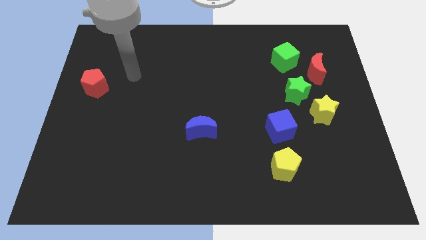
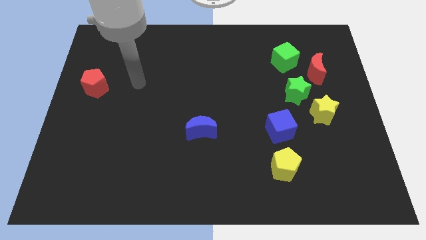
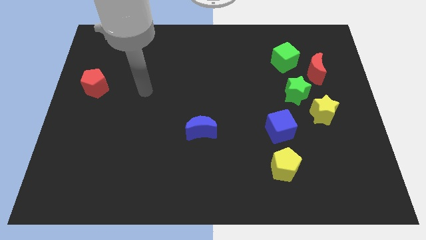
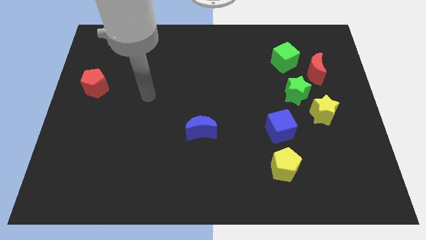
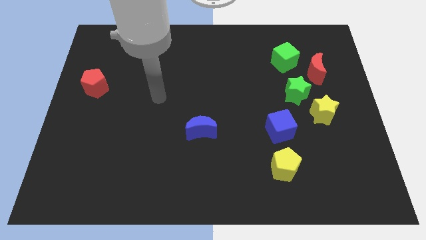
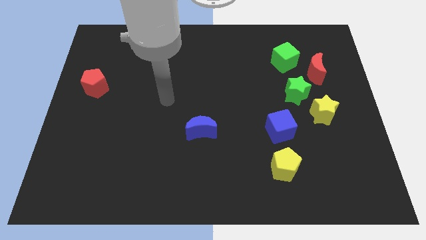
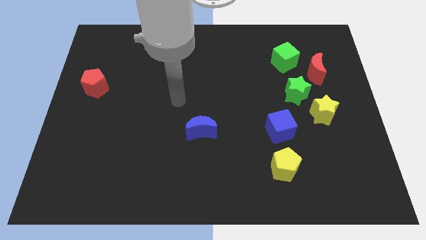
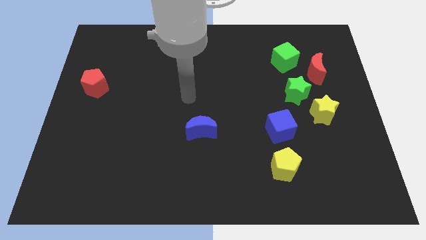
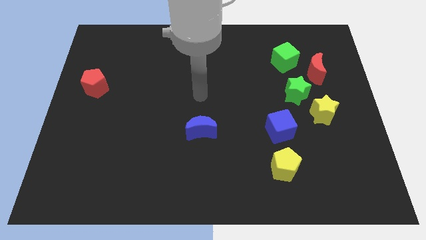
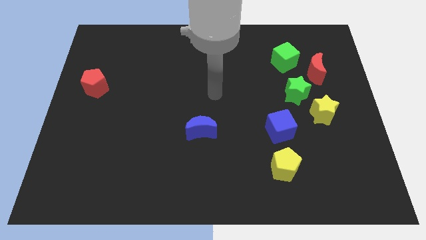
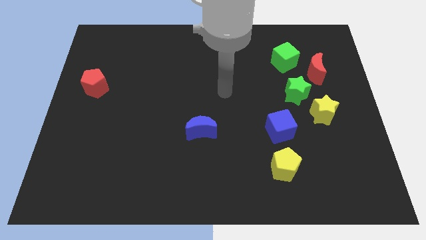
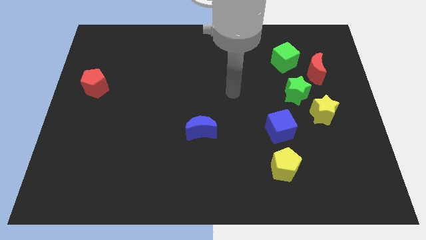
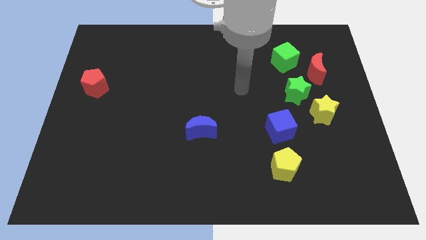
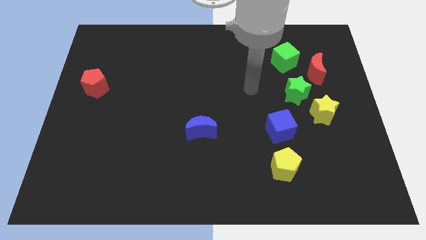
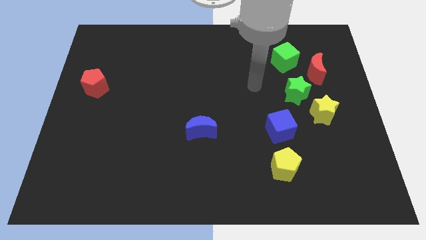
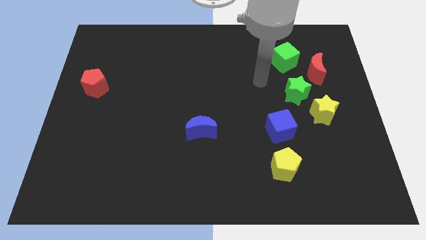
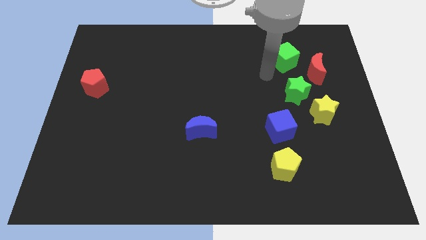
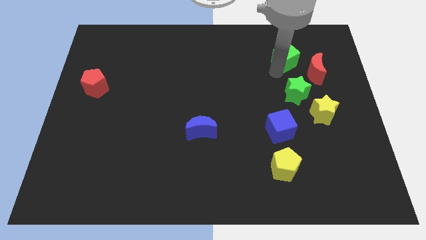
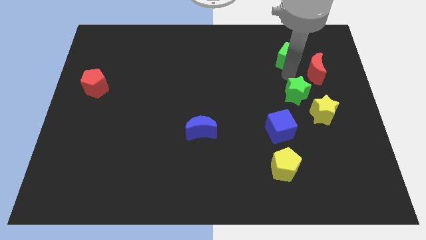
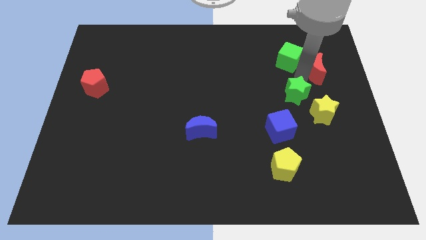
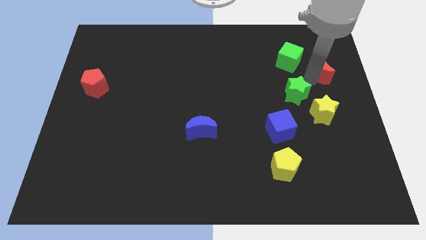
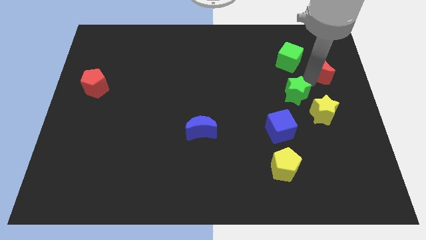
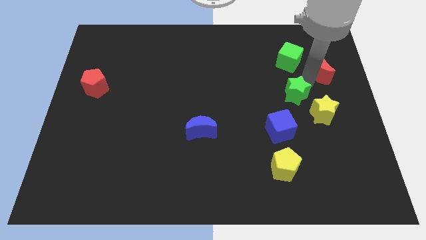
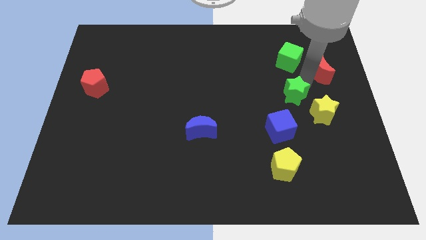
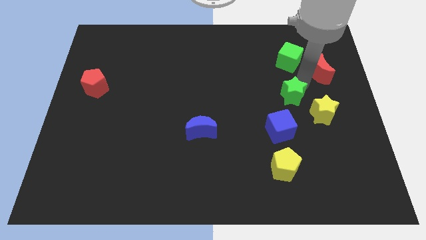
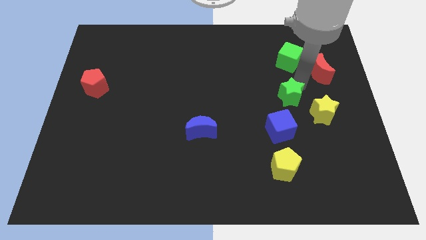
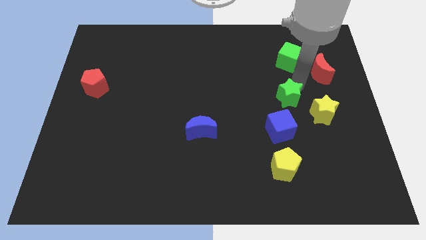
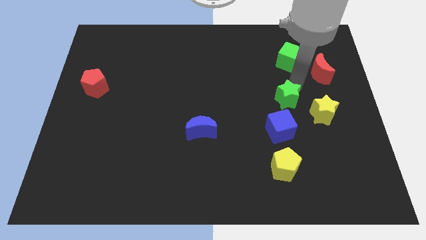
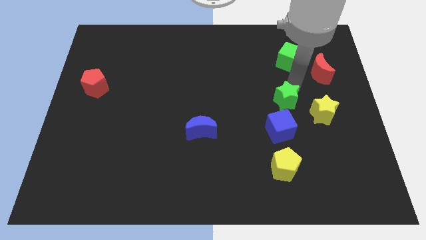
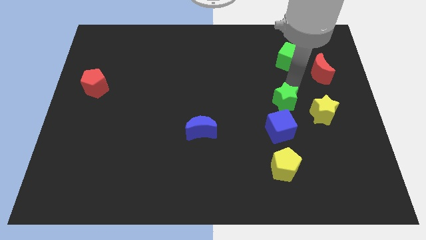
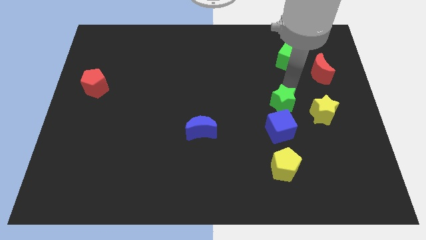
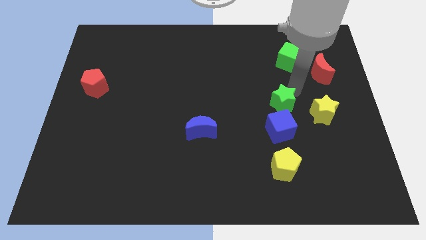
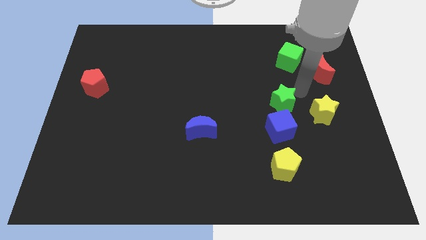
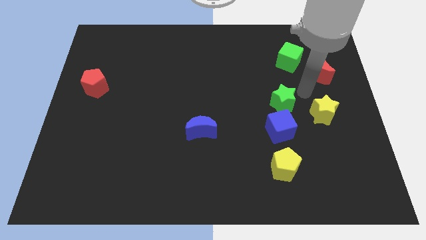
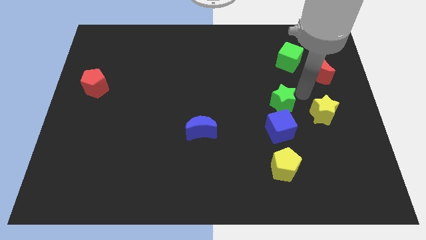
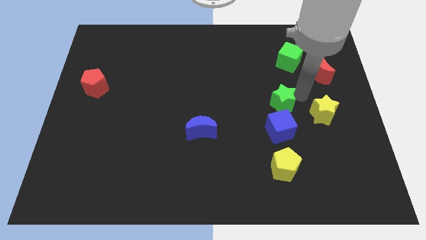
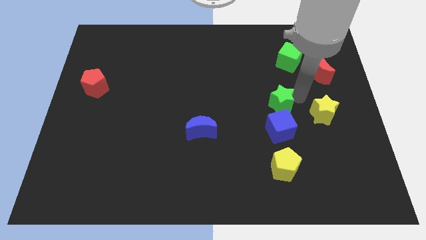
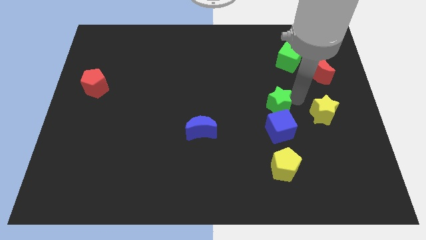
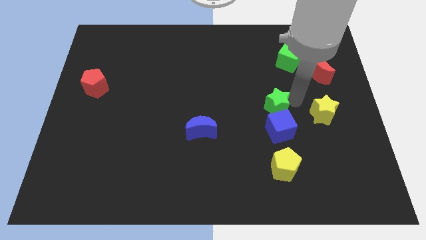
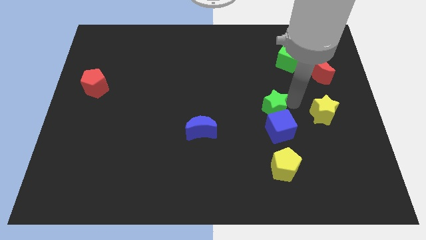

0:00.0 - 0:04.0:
move the green star a little down and to the left diagonally

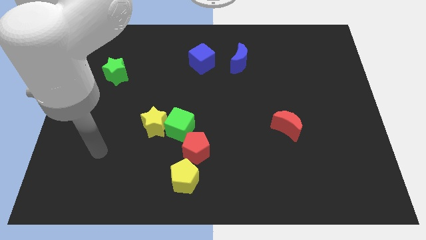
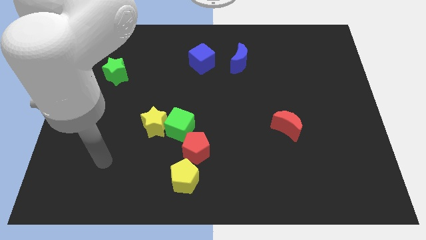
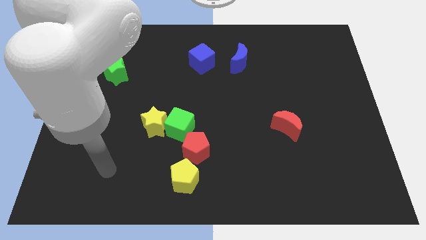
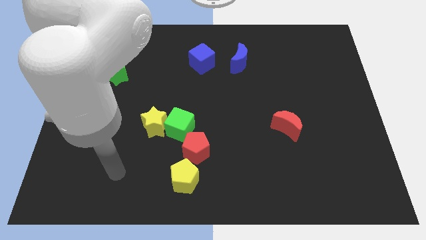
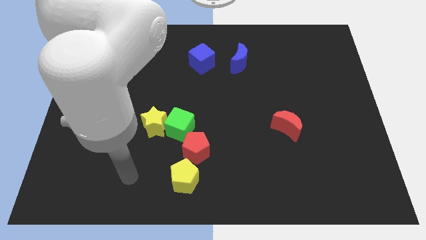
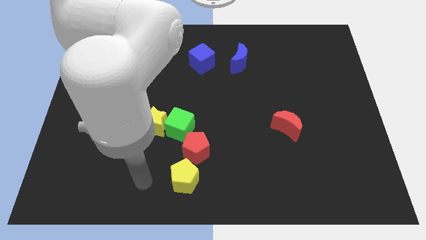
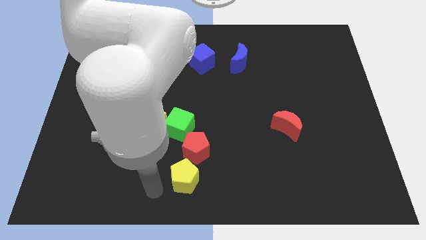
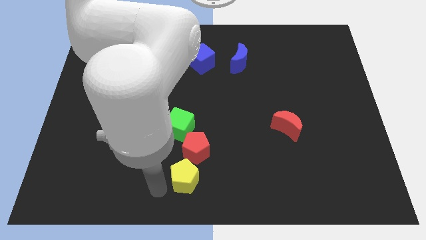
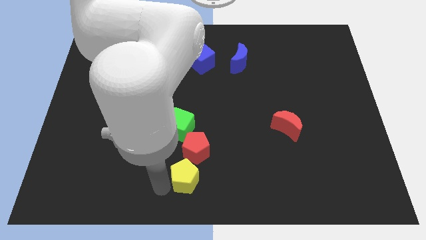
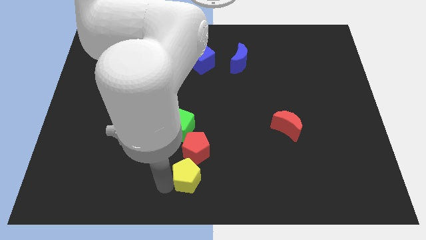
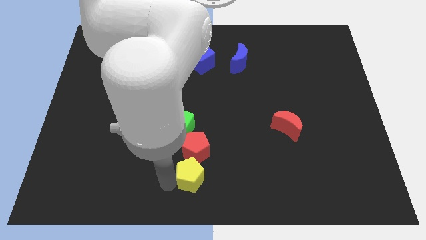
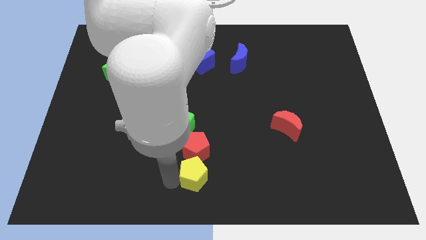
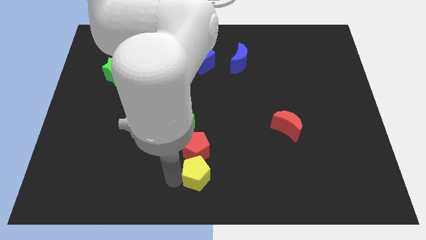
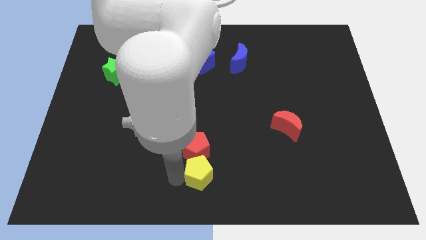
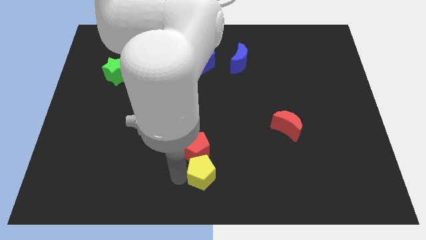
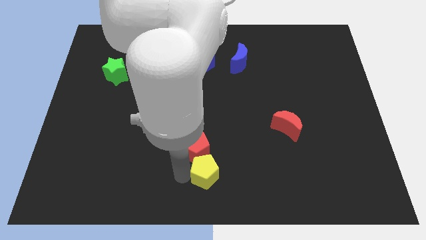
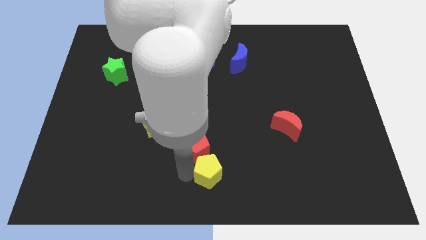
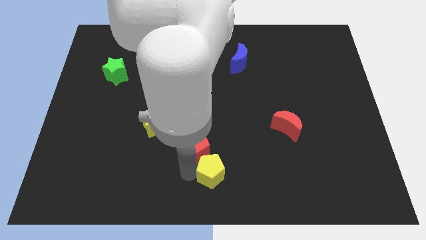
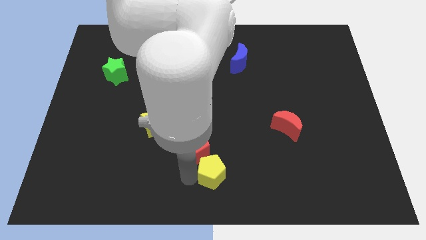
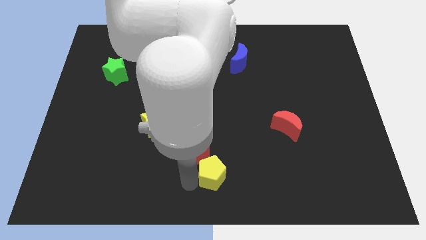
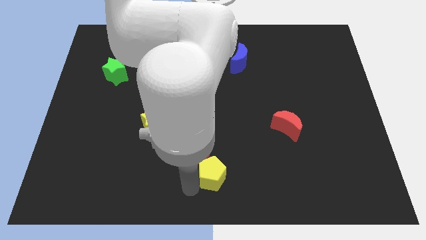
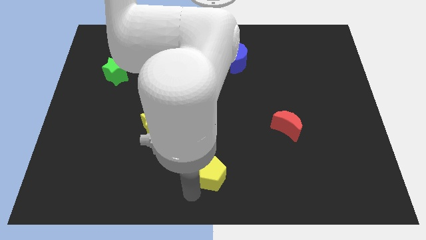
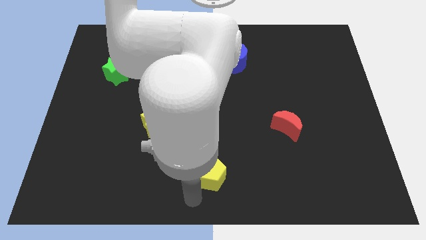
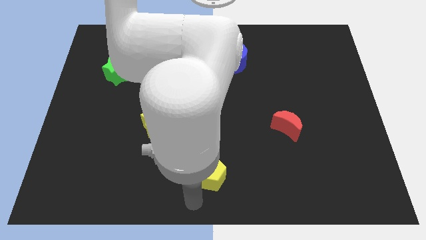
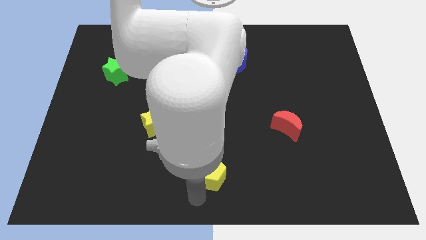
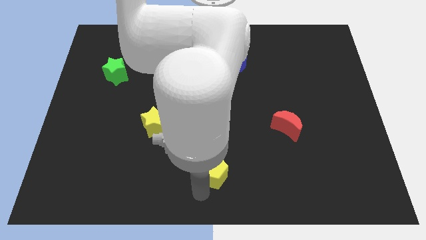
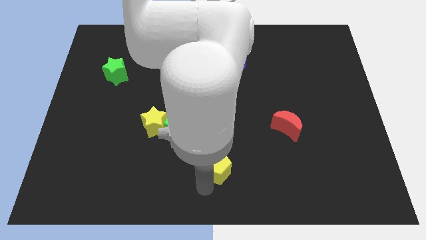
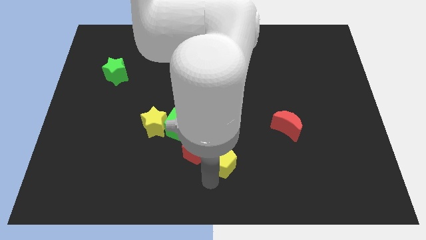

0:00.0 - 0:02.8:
push the yellow pentagon up and to the right a little

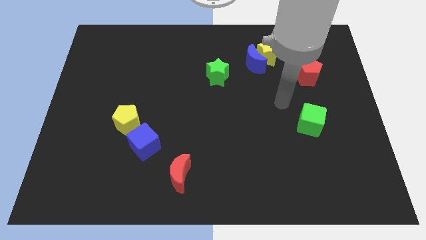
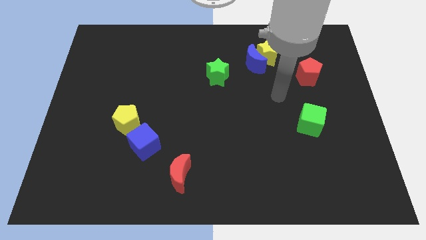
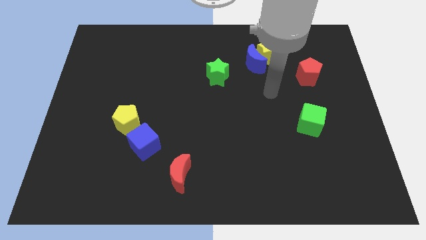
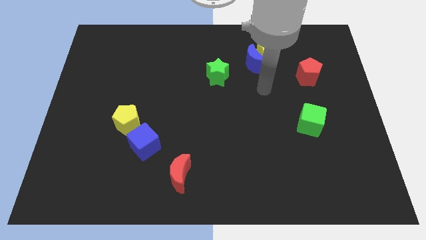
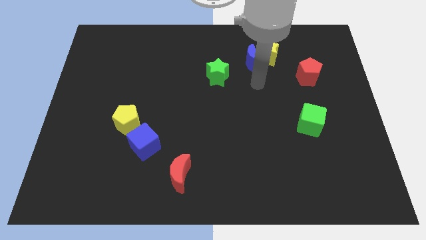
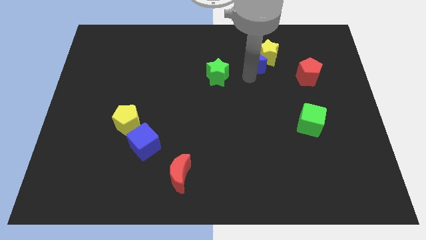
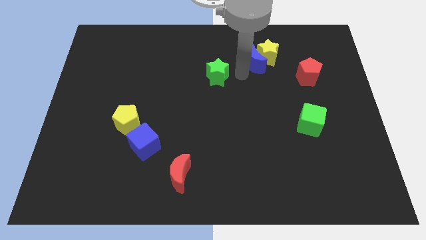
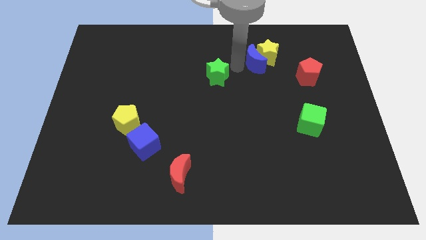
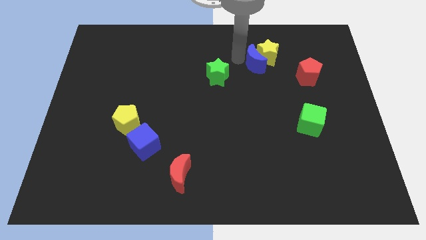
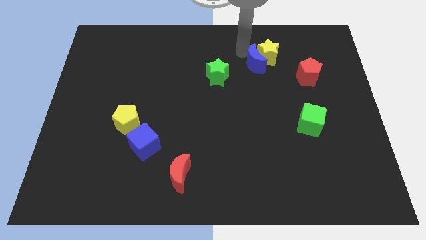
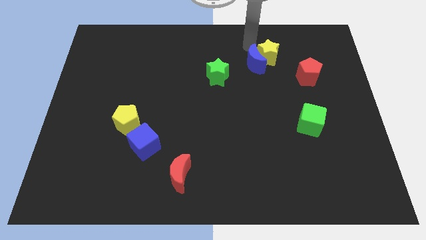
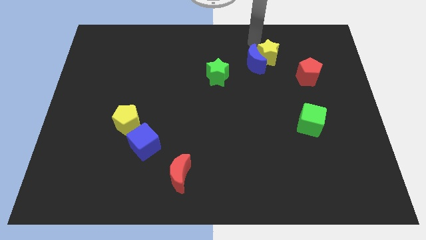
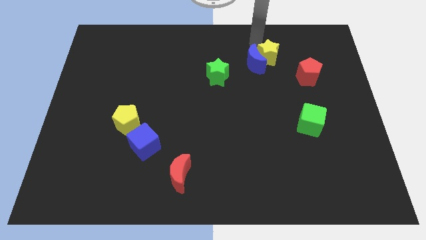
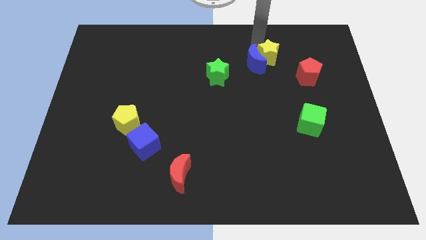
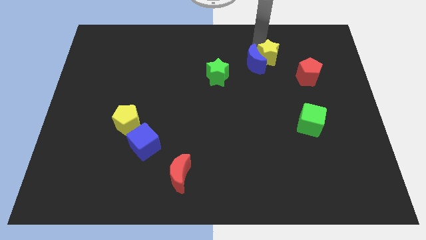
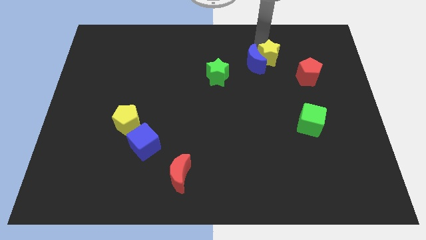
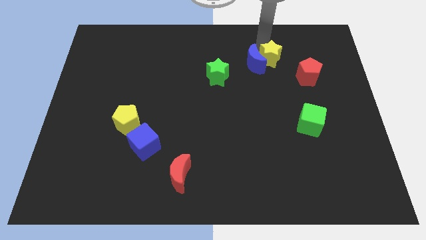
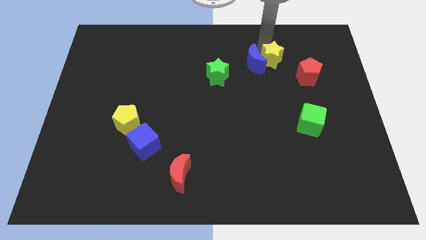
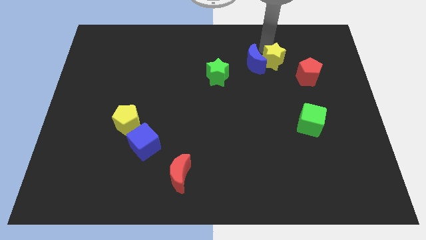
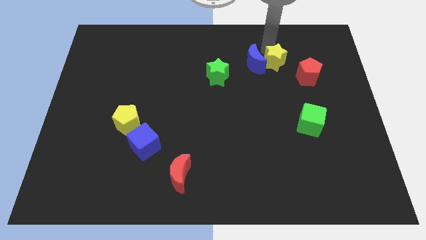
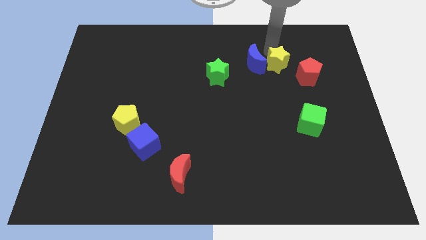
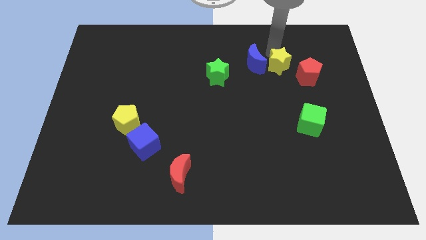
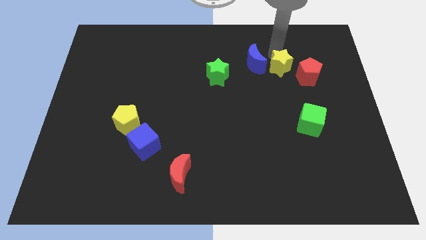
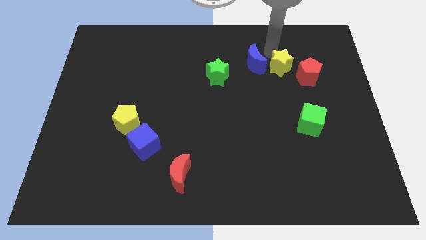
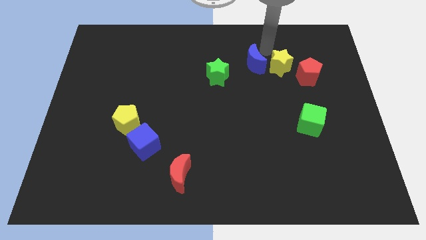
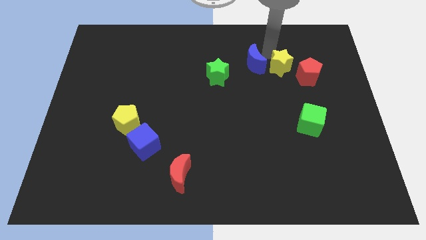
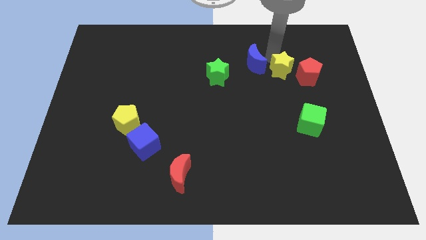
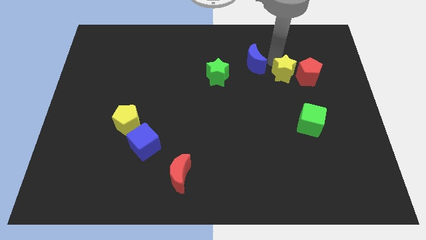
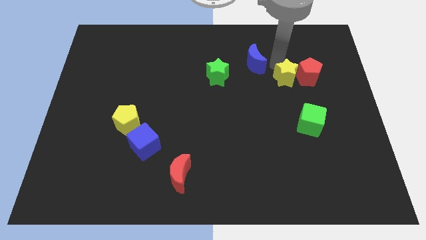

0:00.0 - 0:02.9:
push the yellow star downwards and then right somewhat
